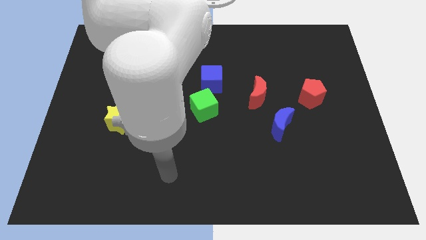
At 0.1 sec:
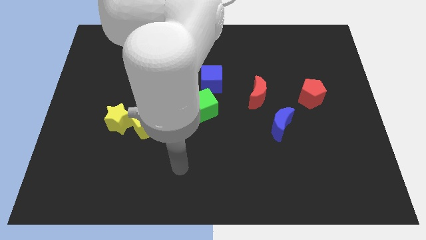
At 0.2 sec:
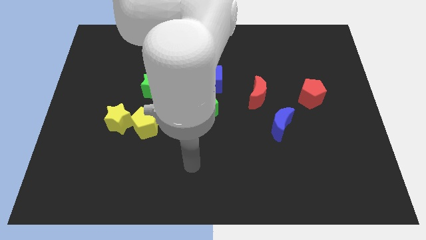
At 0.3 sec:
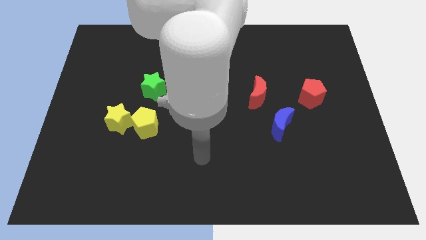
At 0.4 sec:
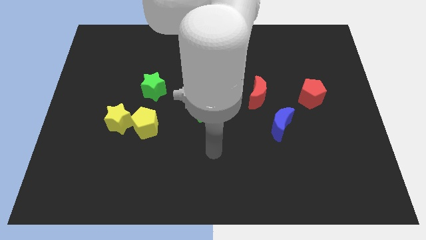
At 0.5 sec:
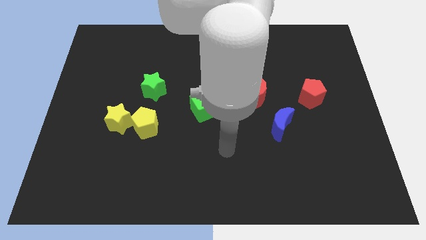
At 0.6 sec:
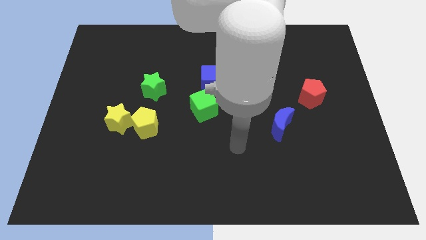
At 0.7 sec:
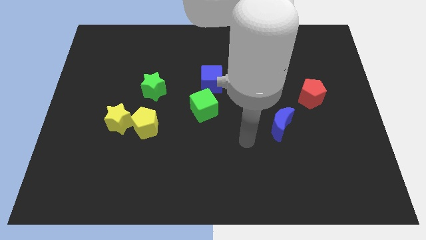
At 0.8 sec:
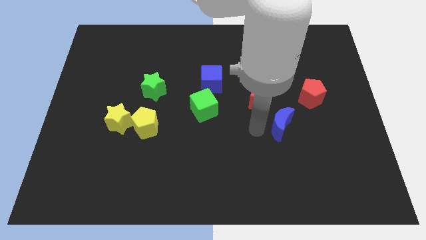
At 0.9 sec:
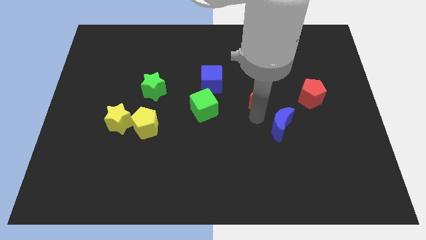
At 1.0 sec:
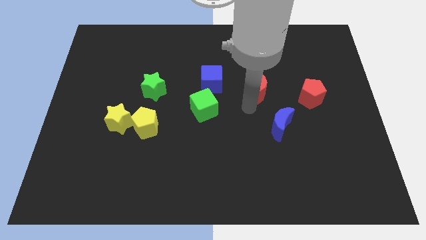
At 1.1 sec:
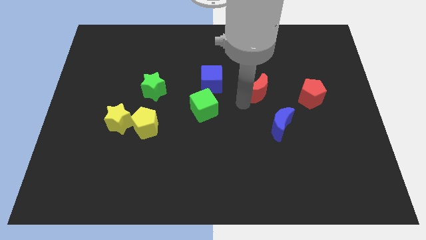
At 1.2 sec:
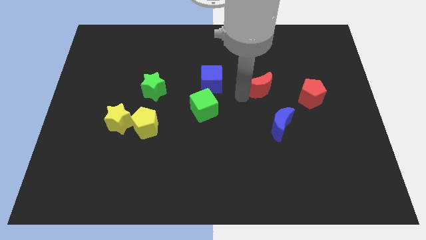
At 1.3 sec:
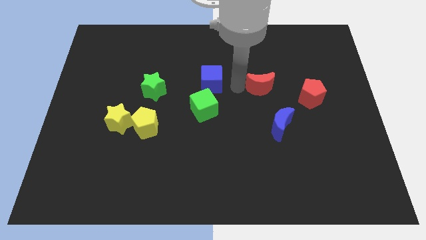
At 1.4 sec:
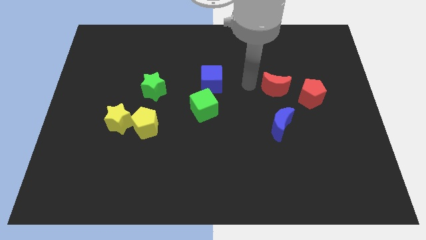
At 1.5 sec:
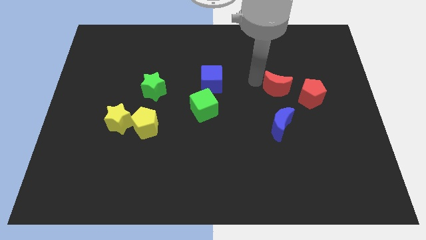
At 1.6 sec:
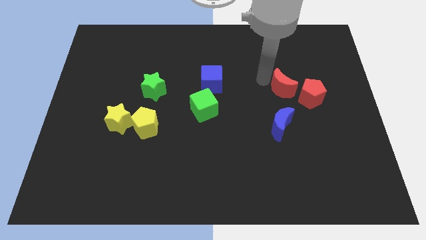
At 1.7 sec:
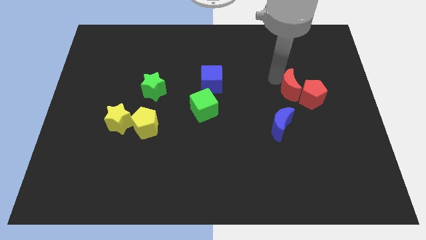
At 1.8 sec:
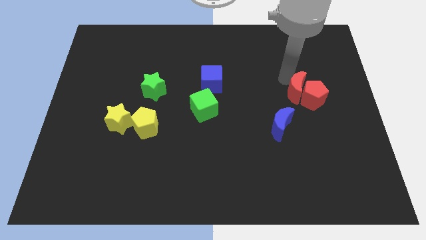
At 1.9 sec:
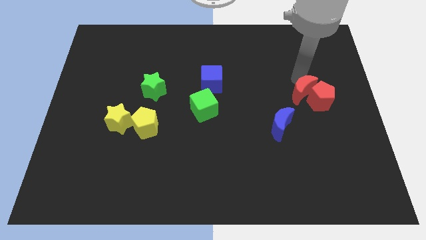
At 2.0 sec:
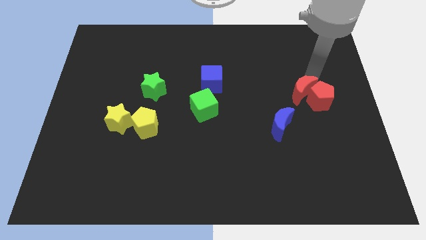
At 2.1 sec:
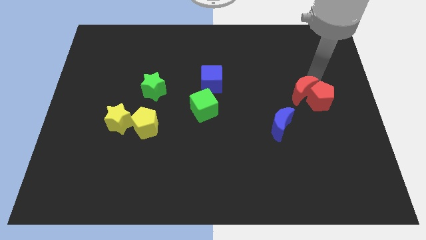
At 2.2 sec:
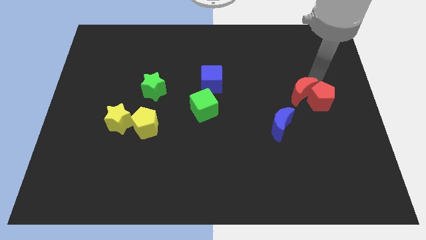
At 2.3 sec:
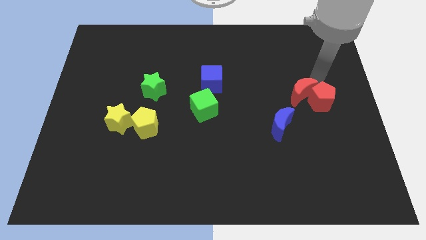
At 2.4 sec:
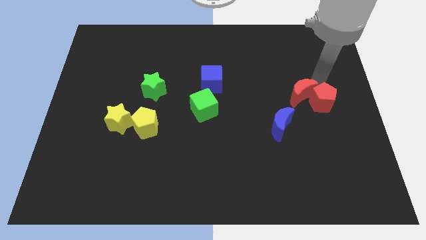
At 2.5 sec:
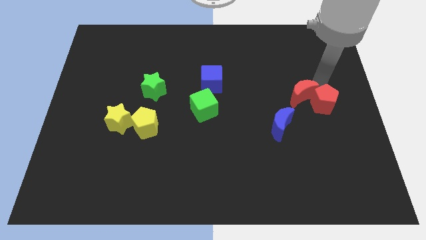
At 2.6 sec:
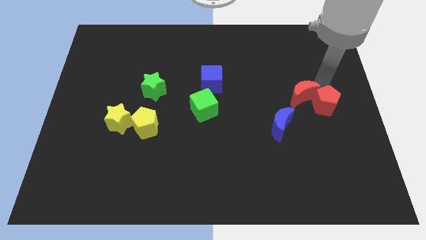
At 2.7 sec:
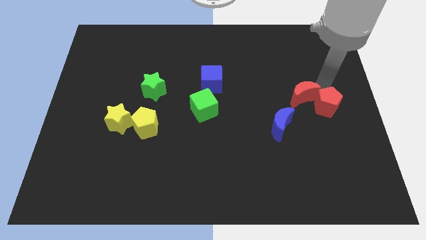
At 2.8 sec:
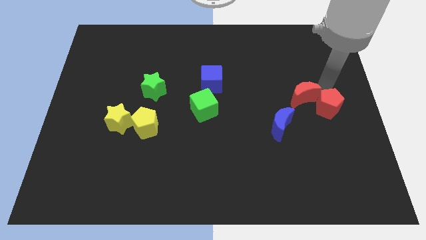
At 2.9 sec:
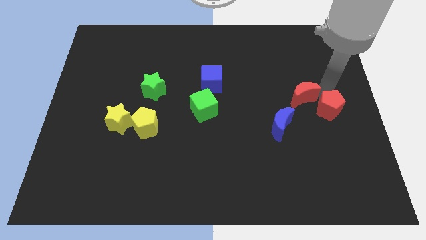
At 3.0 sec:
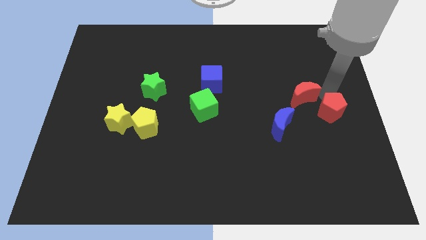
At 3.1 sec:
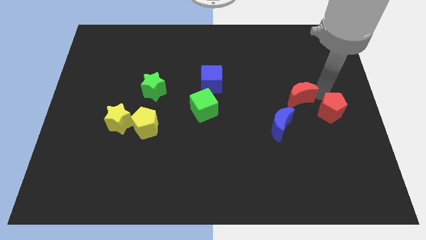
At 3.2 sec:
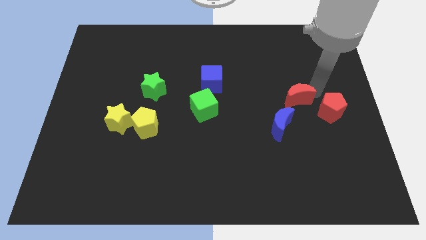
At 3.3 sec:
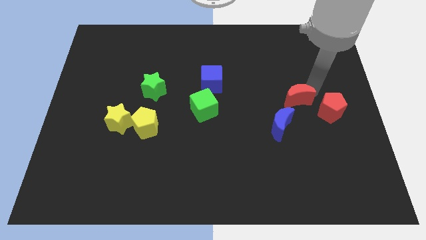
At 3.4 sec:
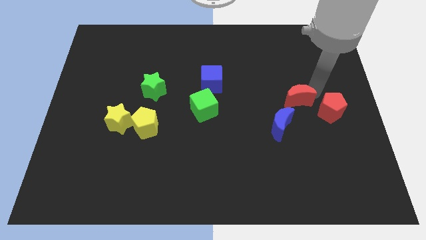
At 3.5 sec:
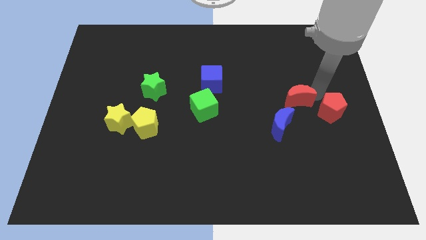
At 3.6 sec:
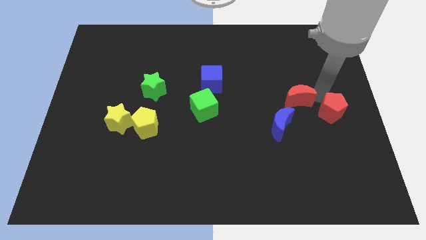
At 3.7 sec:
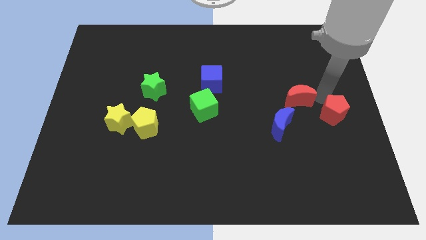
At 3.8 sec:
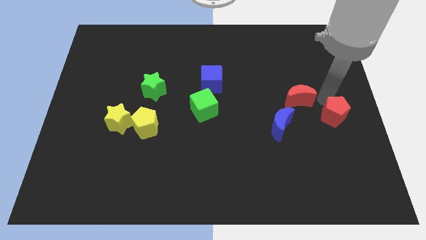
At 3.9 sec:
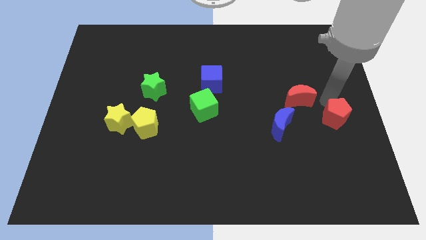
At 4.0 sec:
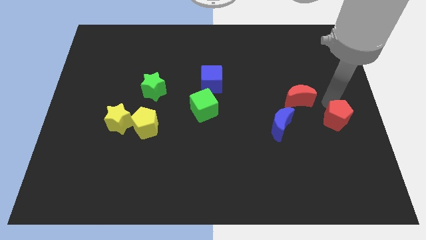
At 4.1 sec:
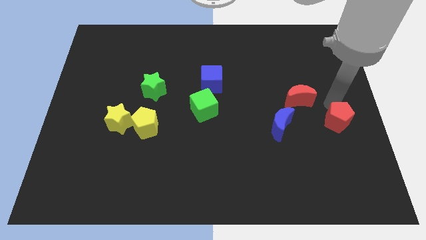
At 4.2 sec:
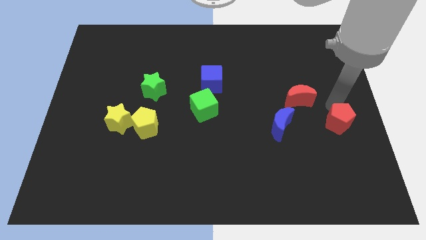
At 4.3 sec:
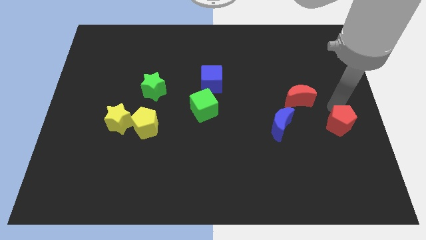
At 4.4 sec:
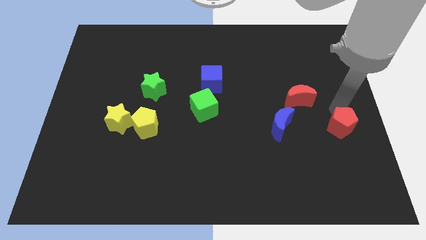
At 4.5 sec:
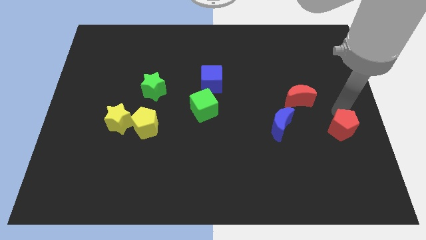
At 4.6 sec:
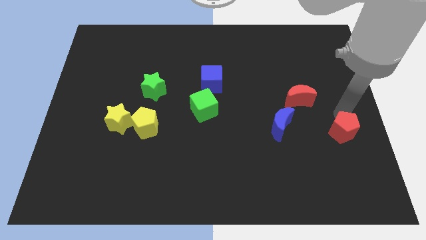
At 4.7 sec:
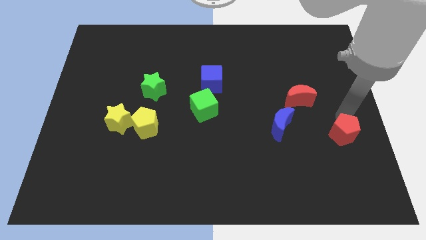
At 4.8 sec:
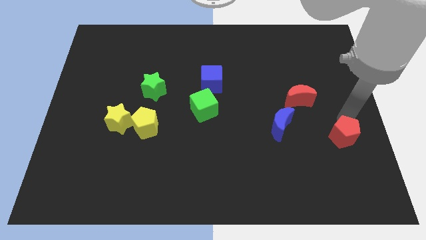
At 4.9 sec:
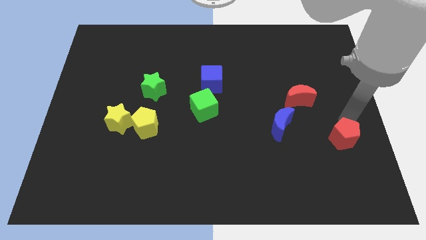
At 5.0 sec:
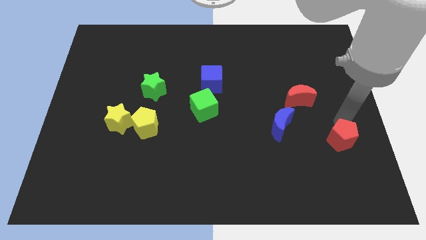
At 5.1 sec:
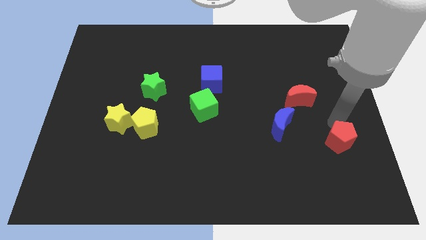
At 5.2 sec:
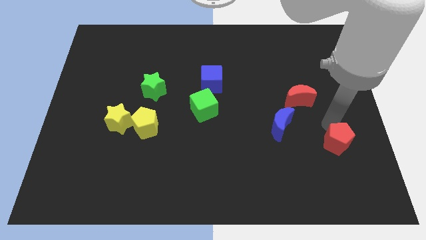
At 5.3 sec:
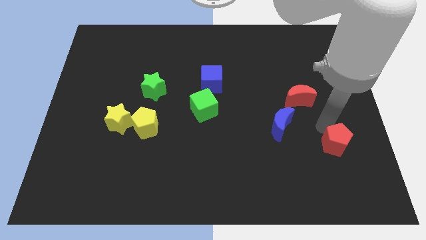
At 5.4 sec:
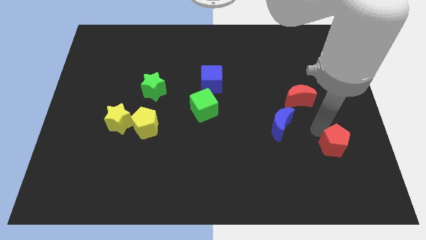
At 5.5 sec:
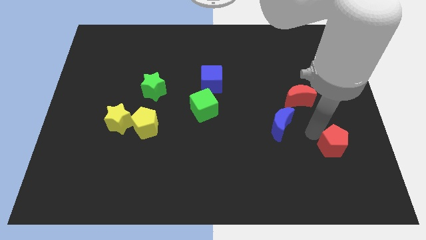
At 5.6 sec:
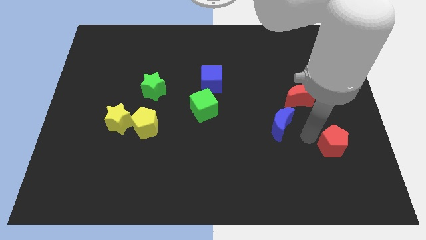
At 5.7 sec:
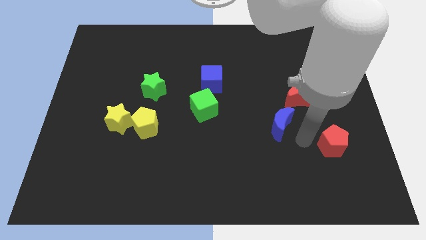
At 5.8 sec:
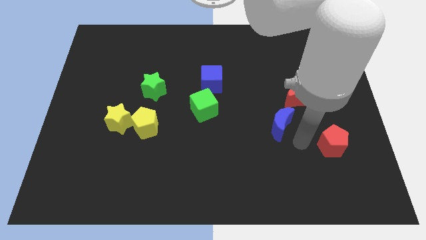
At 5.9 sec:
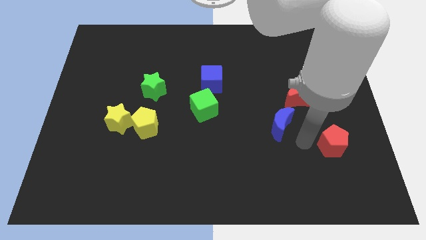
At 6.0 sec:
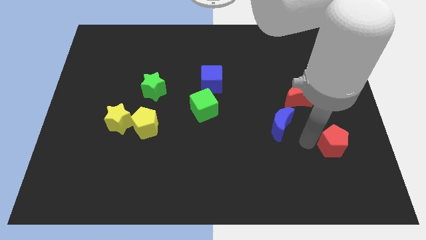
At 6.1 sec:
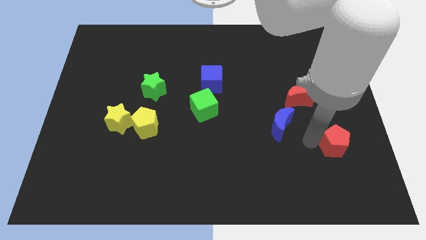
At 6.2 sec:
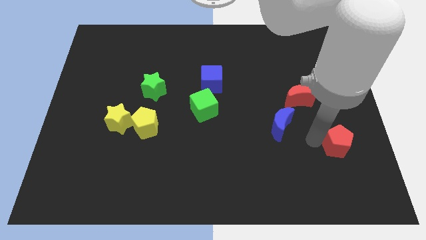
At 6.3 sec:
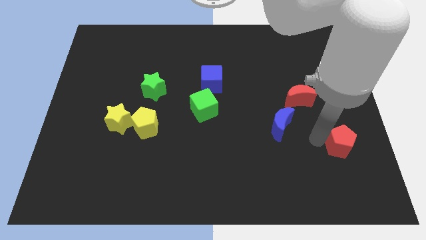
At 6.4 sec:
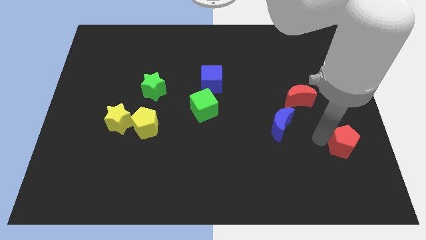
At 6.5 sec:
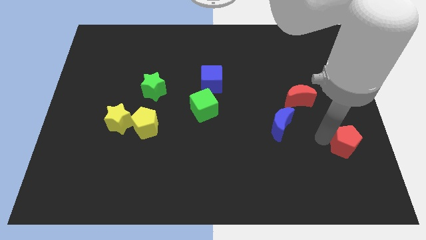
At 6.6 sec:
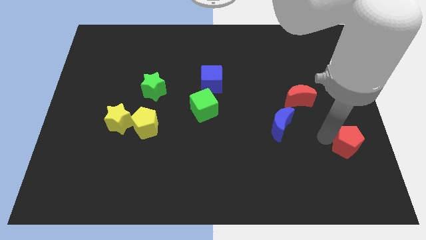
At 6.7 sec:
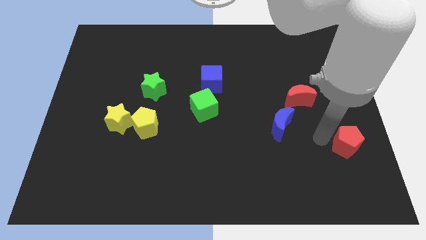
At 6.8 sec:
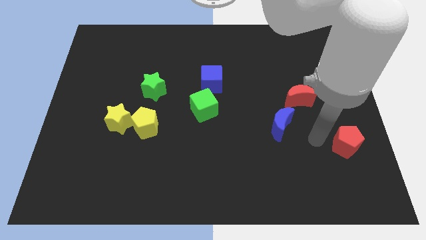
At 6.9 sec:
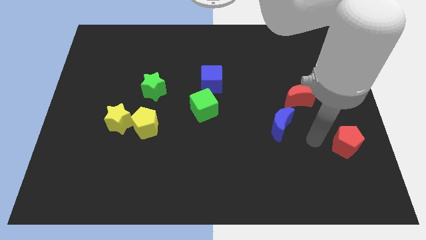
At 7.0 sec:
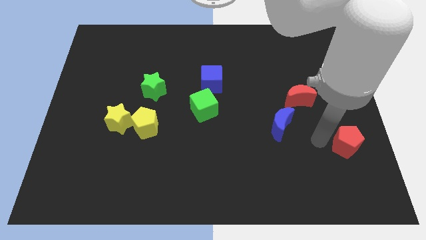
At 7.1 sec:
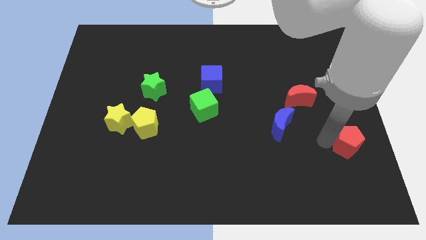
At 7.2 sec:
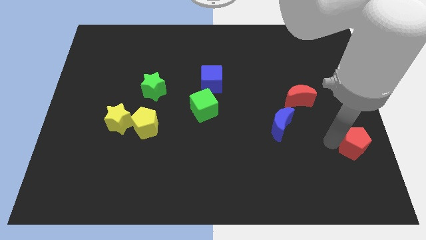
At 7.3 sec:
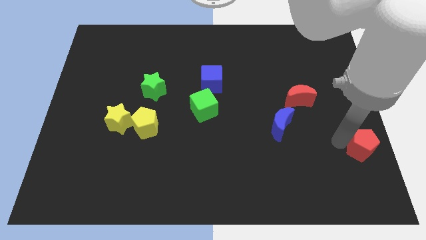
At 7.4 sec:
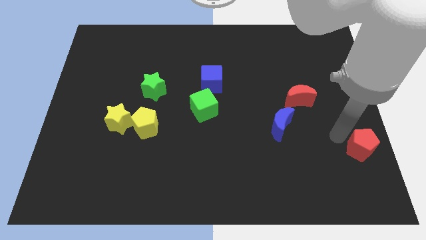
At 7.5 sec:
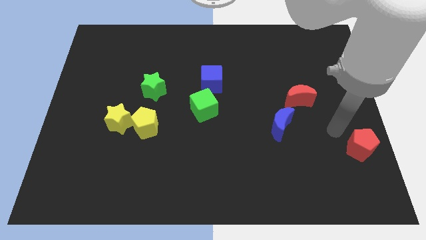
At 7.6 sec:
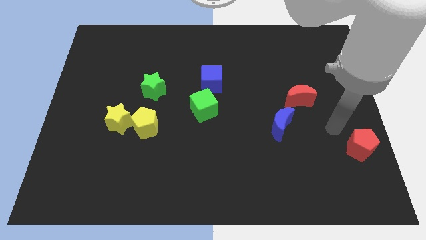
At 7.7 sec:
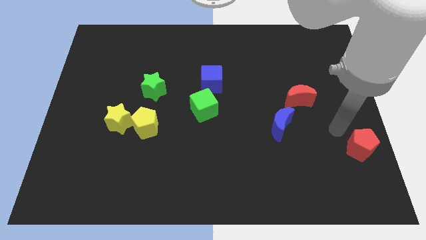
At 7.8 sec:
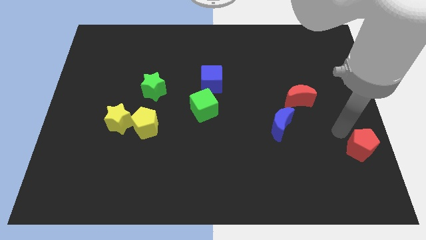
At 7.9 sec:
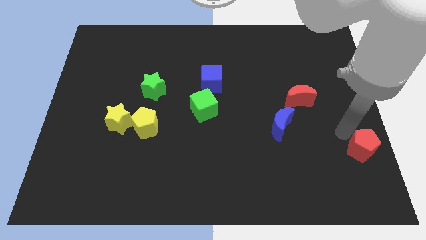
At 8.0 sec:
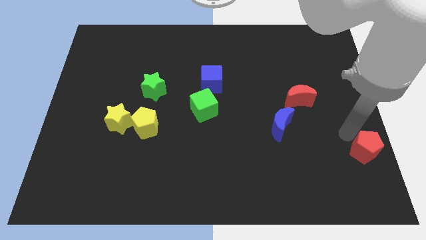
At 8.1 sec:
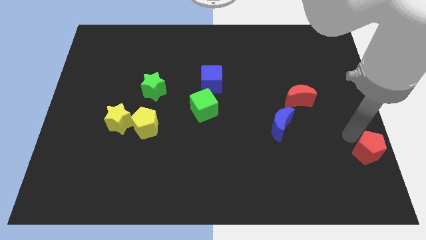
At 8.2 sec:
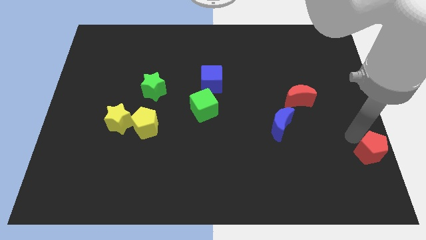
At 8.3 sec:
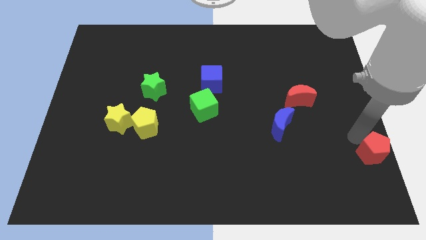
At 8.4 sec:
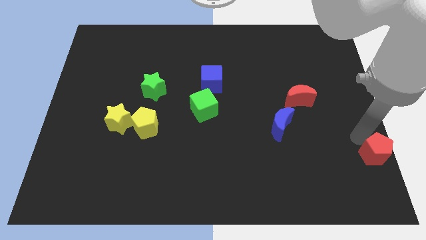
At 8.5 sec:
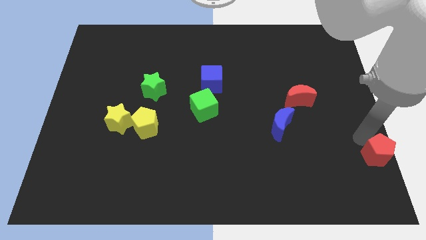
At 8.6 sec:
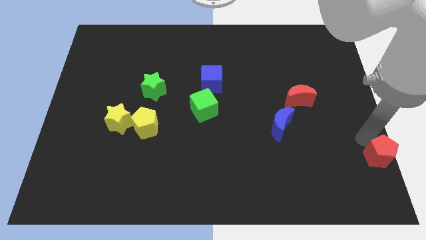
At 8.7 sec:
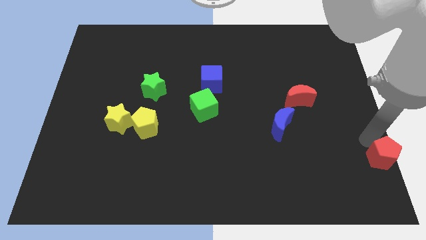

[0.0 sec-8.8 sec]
push the red pentagon to the bottom right of the board
